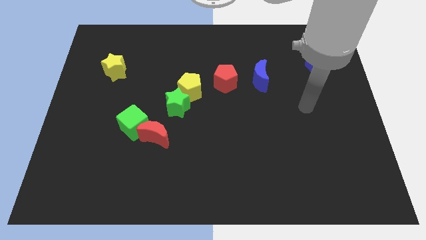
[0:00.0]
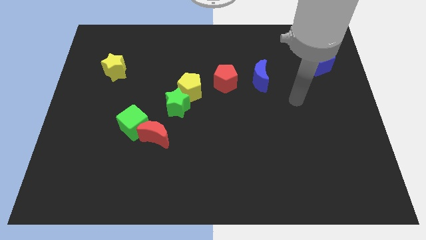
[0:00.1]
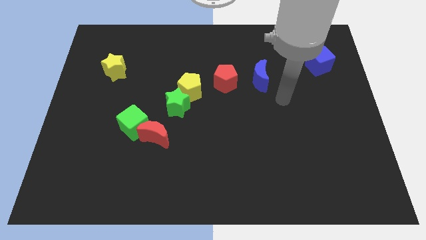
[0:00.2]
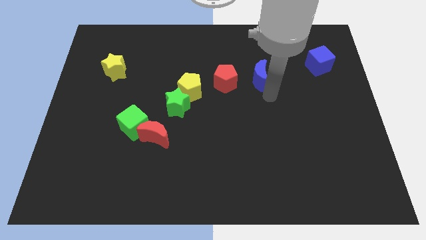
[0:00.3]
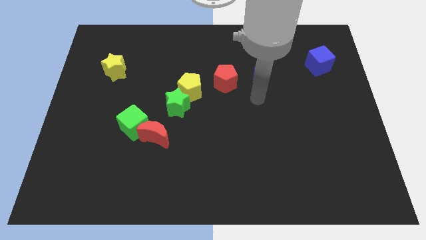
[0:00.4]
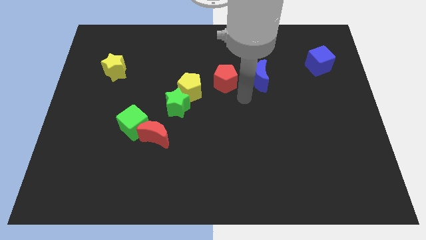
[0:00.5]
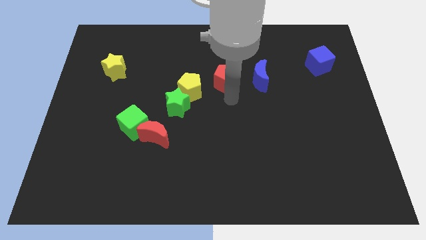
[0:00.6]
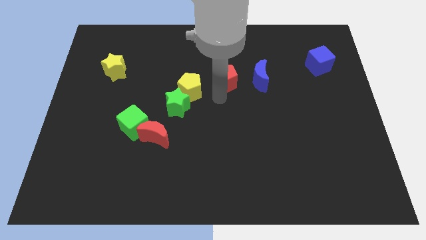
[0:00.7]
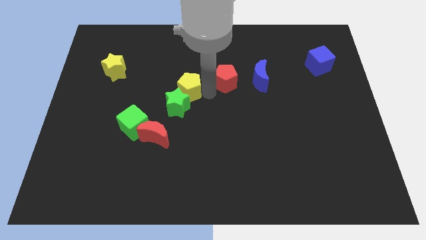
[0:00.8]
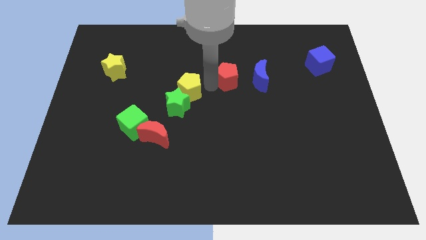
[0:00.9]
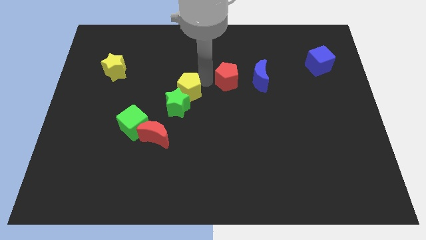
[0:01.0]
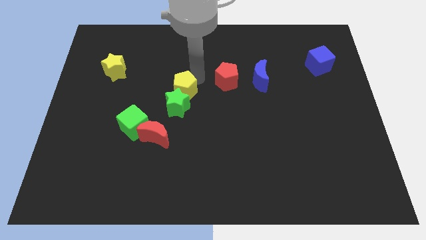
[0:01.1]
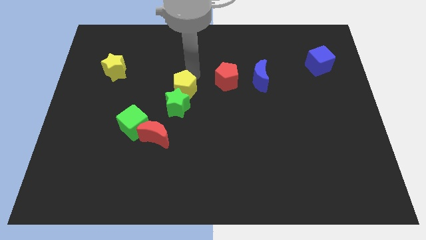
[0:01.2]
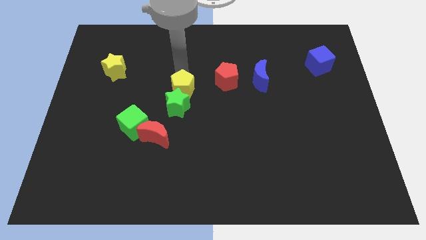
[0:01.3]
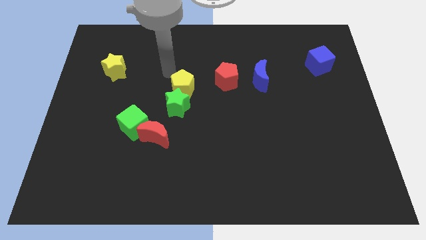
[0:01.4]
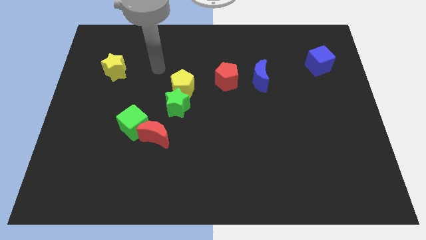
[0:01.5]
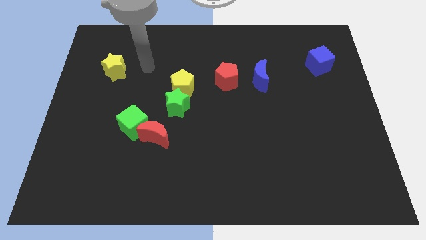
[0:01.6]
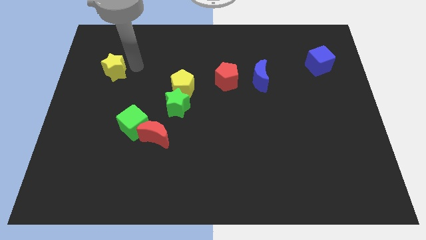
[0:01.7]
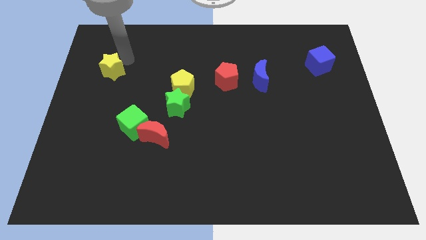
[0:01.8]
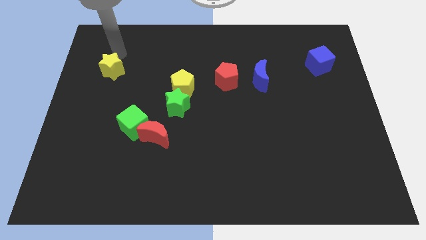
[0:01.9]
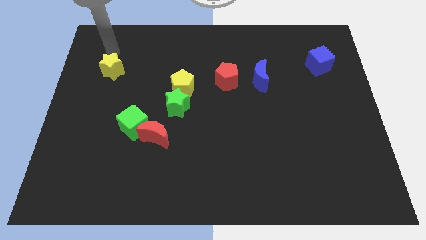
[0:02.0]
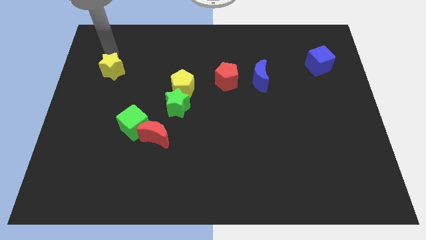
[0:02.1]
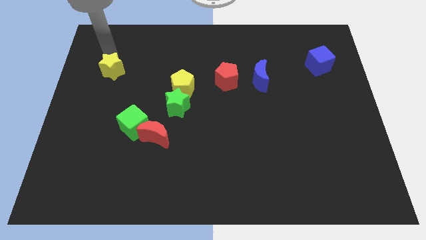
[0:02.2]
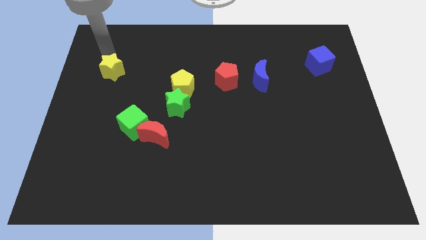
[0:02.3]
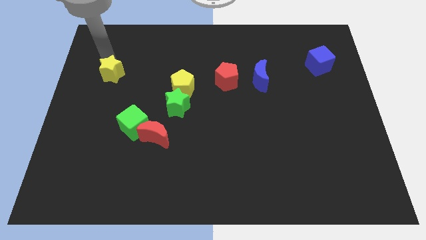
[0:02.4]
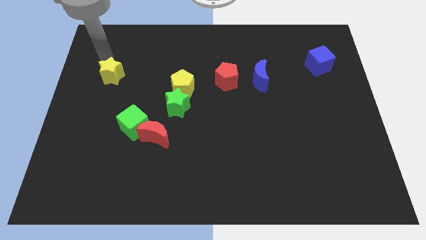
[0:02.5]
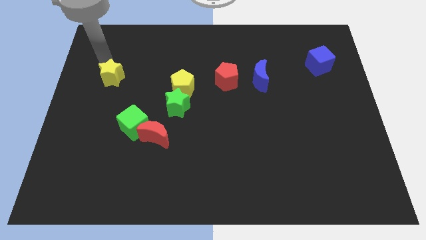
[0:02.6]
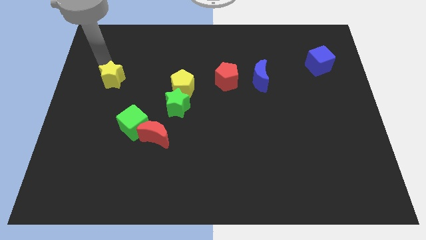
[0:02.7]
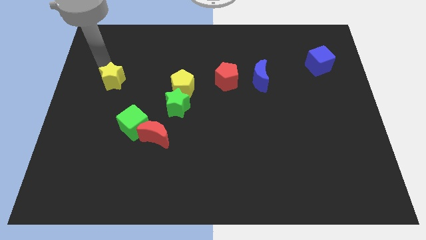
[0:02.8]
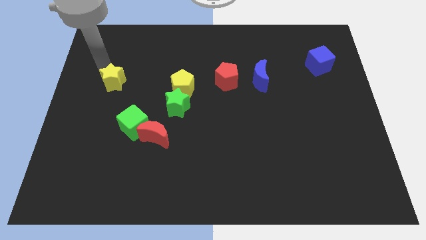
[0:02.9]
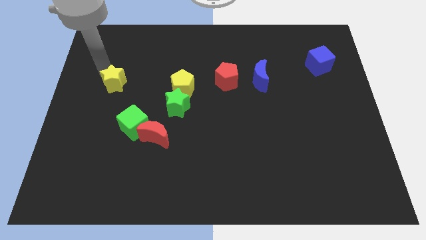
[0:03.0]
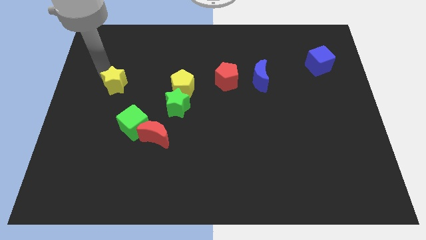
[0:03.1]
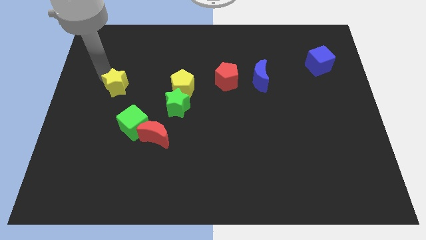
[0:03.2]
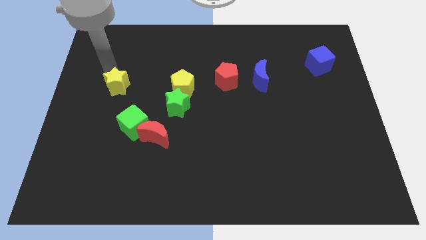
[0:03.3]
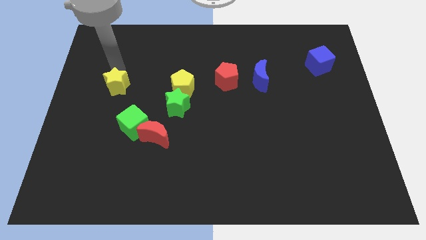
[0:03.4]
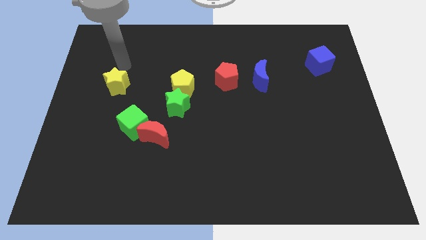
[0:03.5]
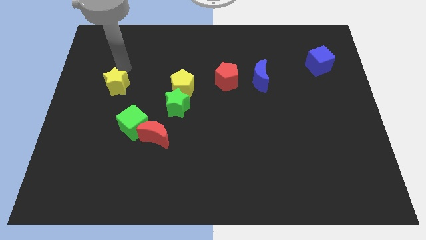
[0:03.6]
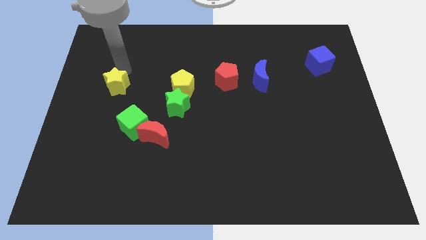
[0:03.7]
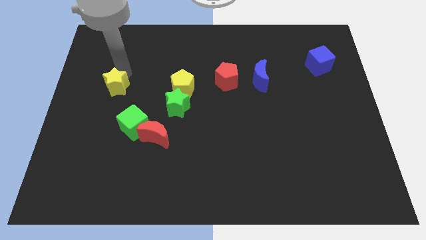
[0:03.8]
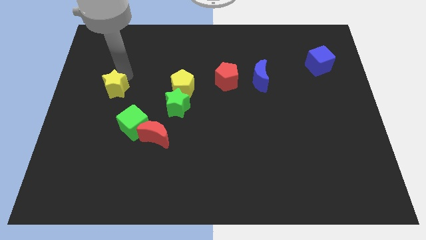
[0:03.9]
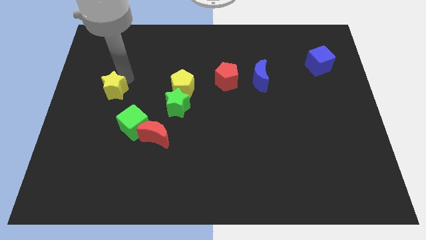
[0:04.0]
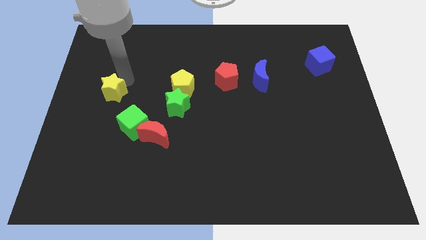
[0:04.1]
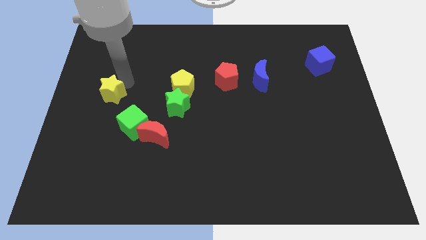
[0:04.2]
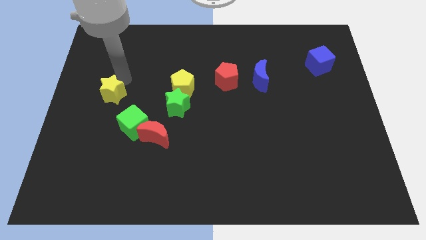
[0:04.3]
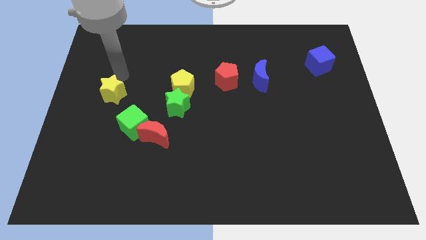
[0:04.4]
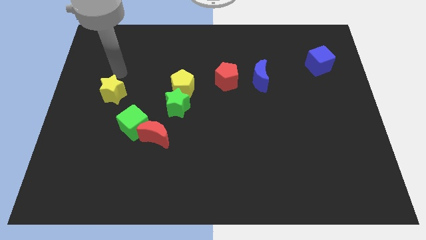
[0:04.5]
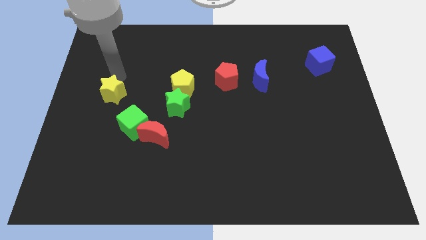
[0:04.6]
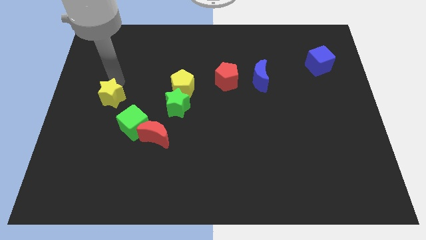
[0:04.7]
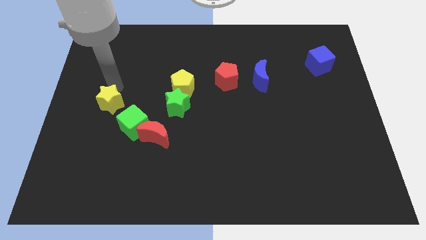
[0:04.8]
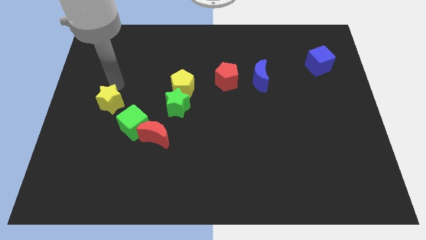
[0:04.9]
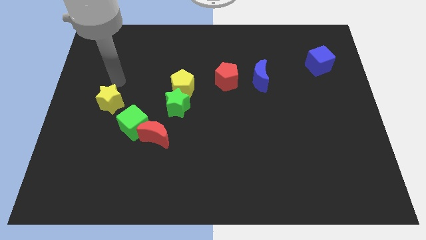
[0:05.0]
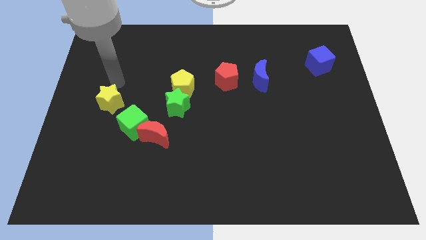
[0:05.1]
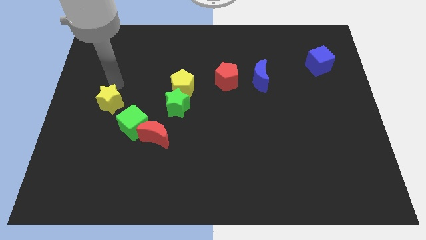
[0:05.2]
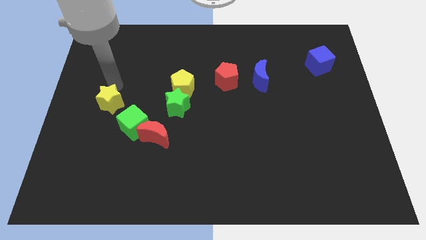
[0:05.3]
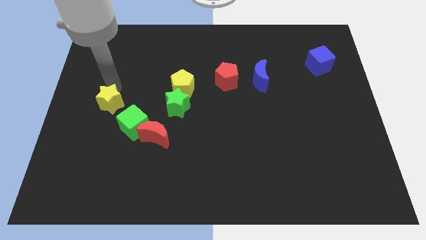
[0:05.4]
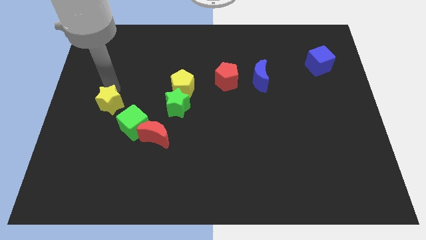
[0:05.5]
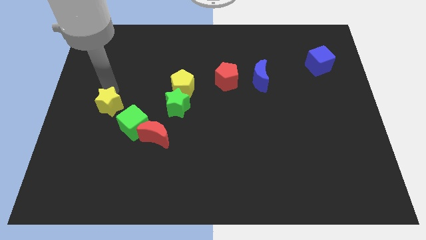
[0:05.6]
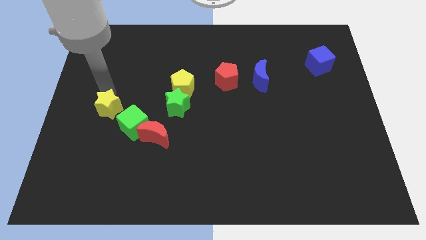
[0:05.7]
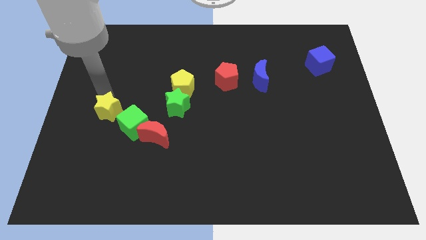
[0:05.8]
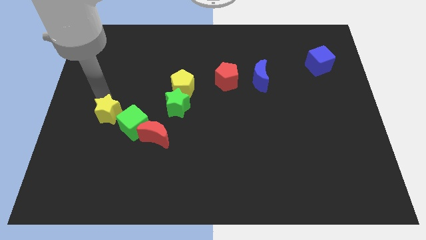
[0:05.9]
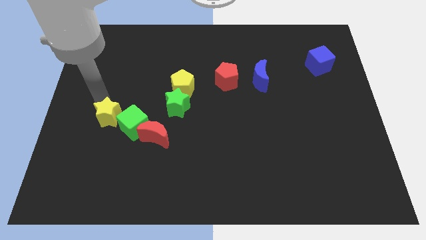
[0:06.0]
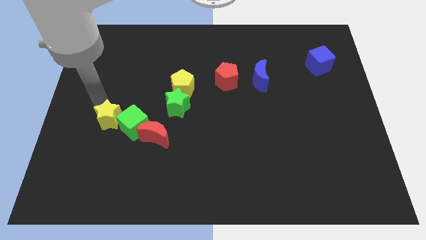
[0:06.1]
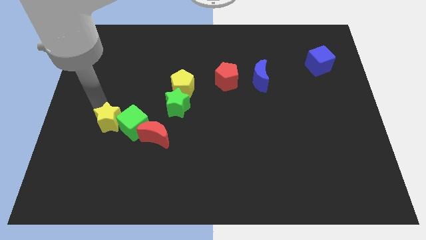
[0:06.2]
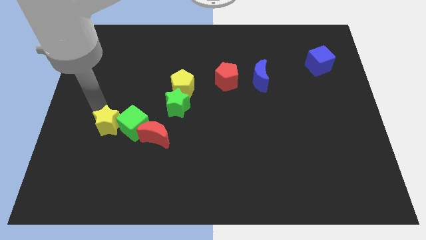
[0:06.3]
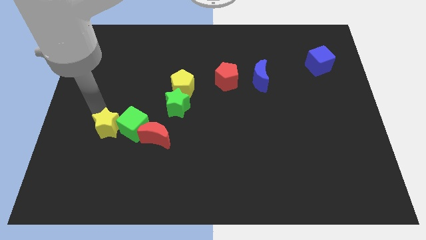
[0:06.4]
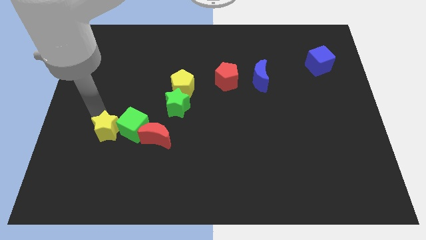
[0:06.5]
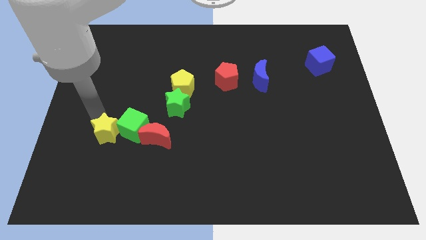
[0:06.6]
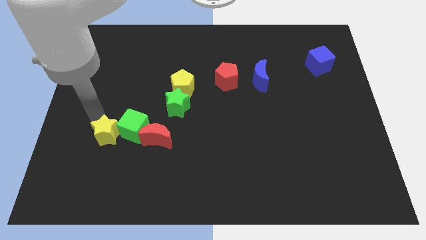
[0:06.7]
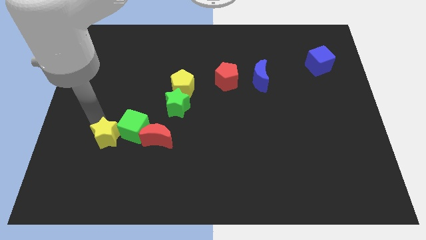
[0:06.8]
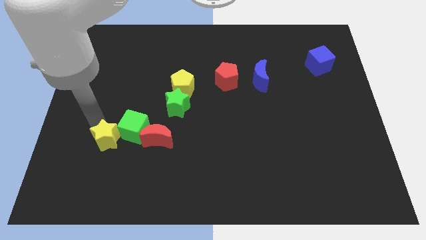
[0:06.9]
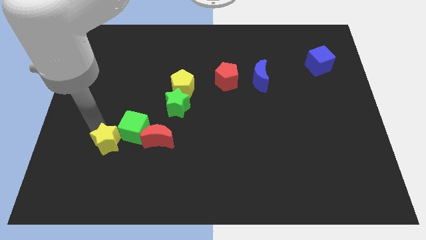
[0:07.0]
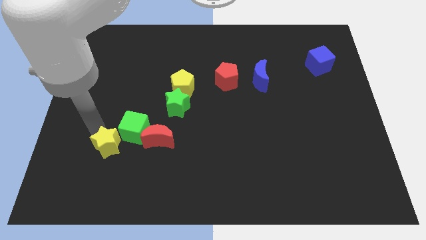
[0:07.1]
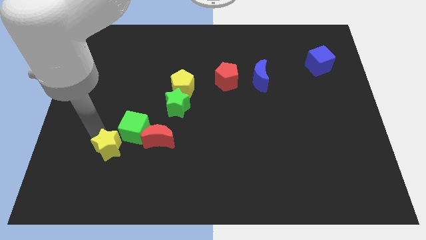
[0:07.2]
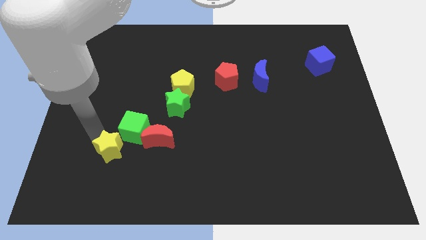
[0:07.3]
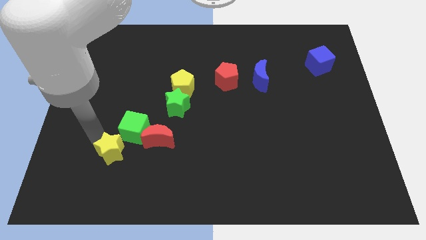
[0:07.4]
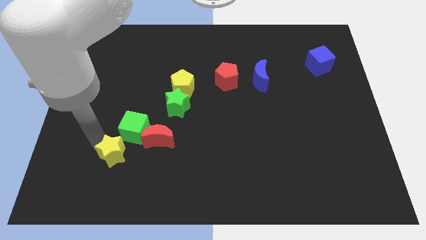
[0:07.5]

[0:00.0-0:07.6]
push the yellow star to the bottom left of the red moon
